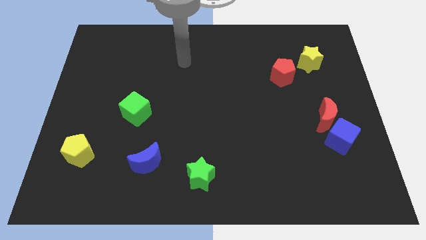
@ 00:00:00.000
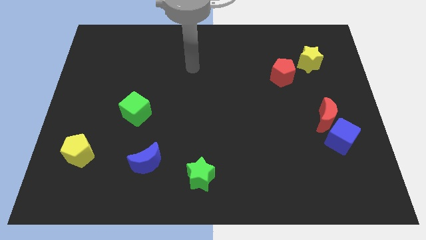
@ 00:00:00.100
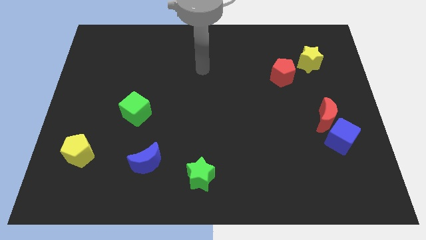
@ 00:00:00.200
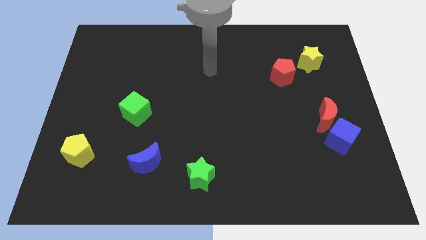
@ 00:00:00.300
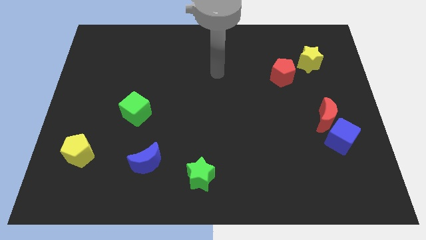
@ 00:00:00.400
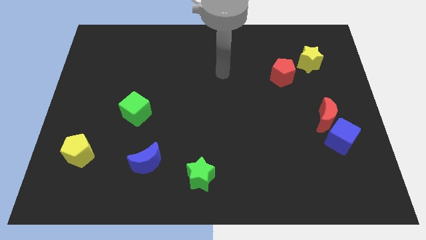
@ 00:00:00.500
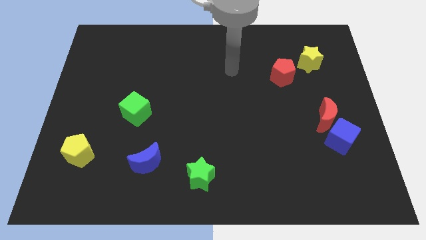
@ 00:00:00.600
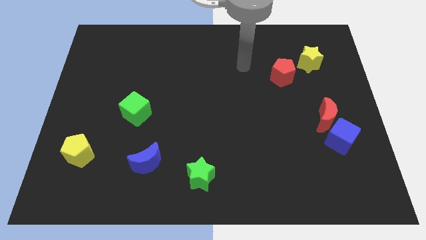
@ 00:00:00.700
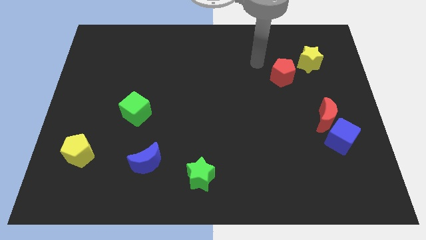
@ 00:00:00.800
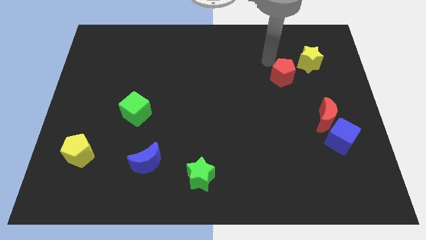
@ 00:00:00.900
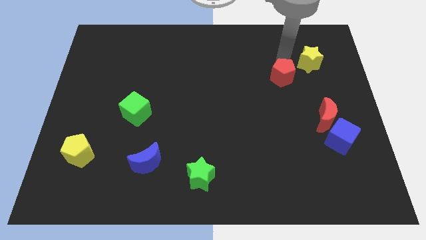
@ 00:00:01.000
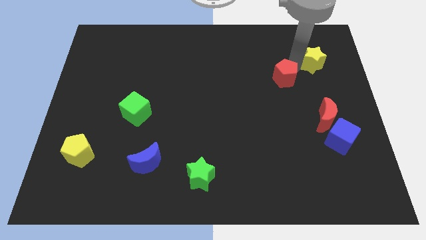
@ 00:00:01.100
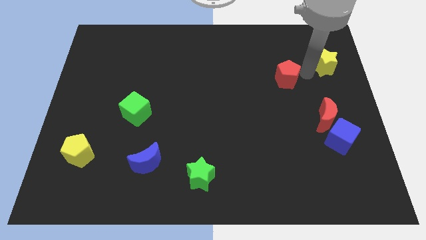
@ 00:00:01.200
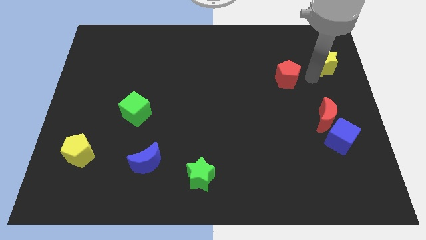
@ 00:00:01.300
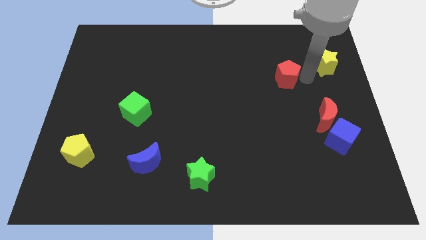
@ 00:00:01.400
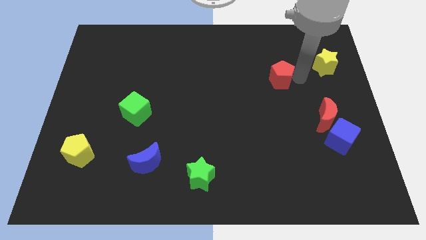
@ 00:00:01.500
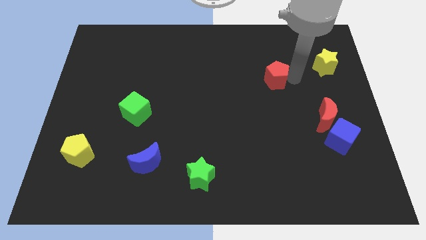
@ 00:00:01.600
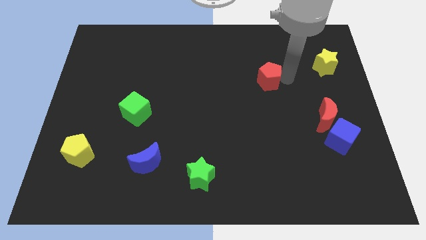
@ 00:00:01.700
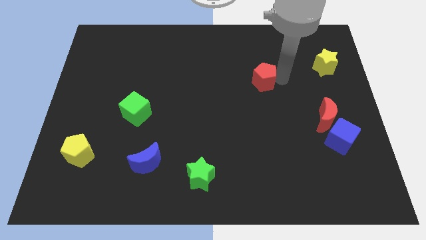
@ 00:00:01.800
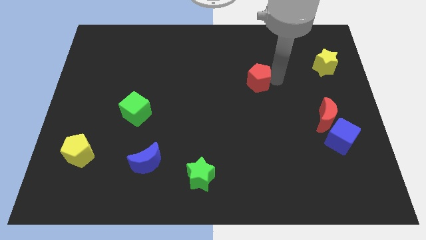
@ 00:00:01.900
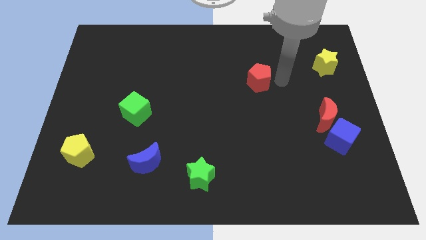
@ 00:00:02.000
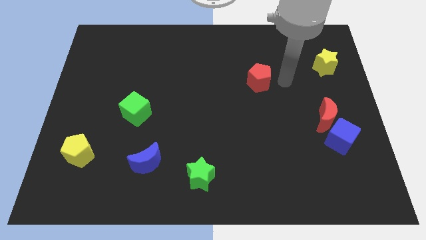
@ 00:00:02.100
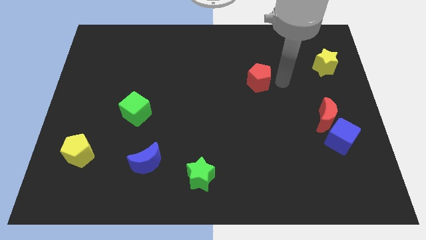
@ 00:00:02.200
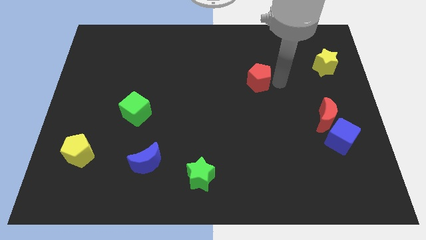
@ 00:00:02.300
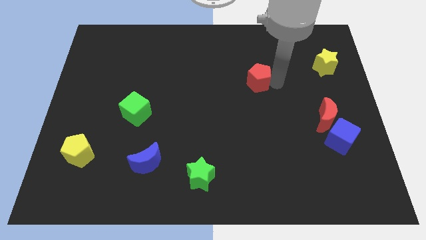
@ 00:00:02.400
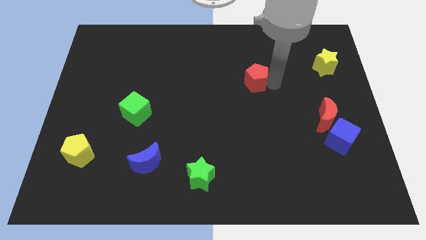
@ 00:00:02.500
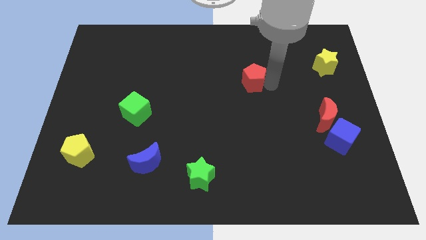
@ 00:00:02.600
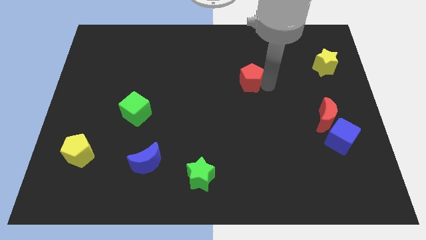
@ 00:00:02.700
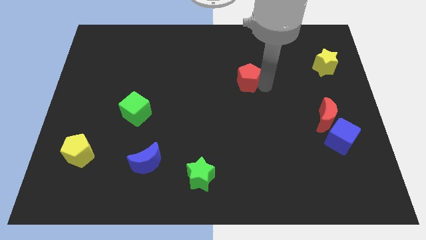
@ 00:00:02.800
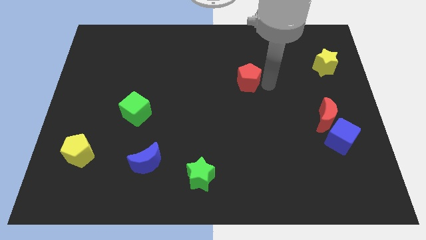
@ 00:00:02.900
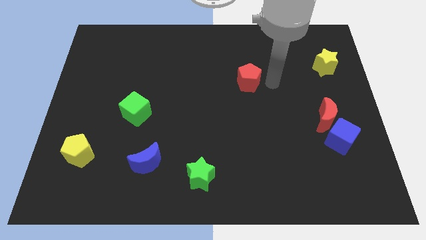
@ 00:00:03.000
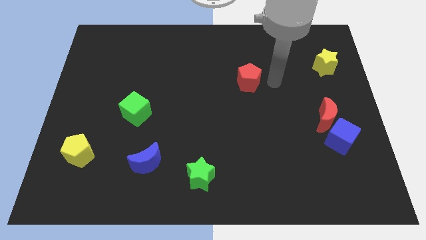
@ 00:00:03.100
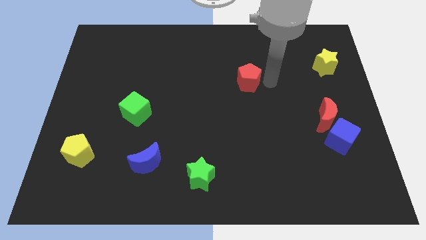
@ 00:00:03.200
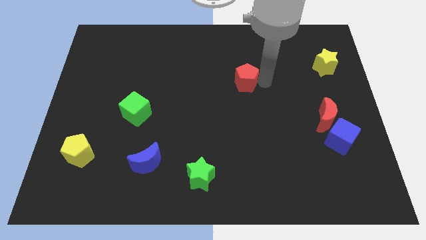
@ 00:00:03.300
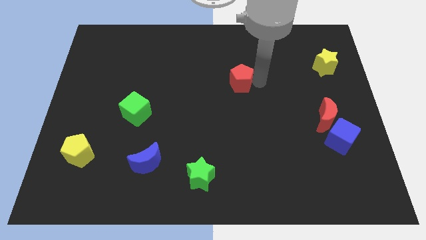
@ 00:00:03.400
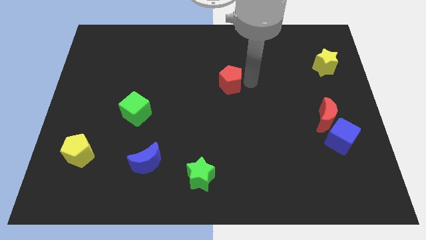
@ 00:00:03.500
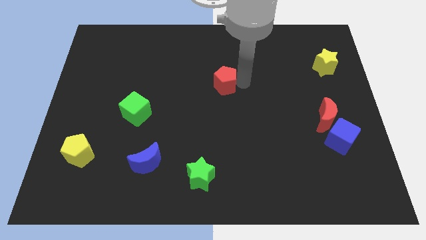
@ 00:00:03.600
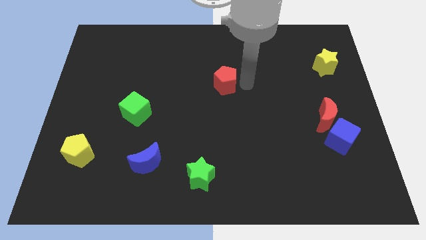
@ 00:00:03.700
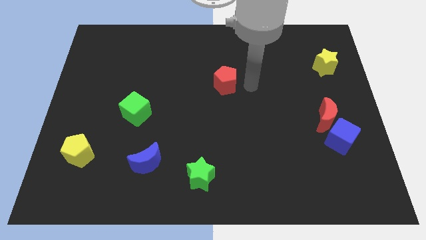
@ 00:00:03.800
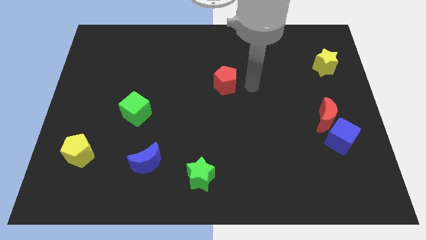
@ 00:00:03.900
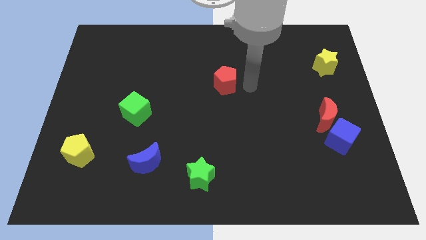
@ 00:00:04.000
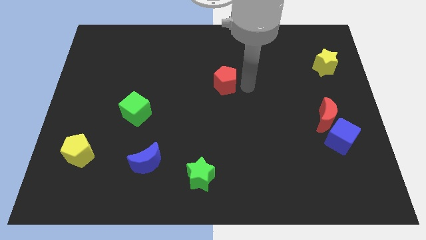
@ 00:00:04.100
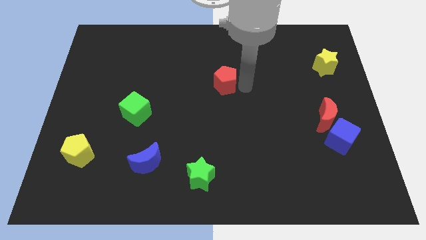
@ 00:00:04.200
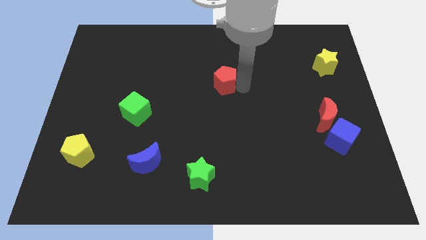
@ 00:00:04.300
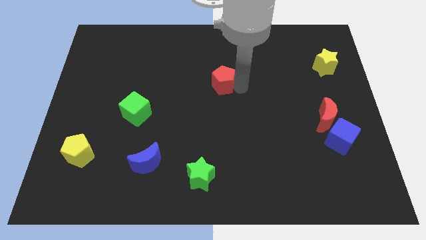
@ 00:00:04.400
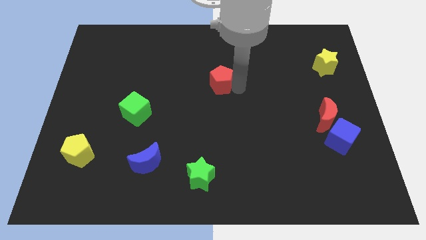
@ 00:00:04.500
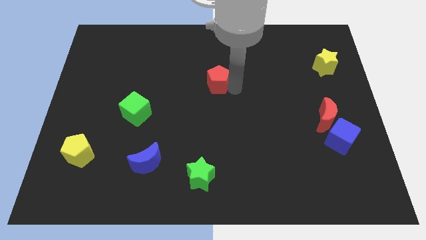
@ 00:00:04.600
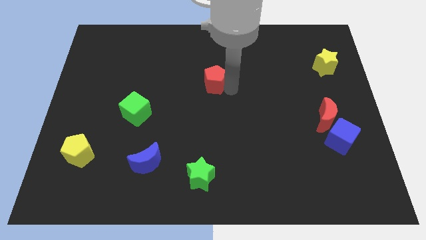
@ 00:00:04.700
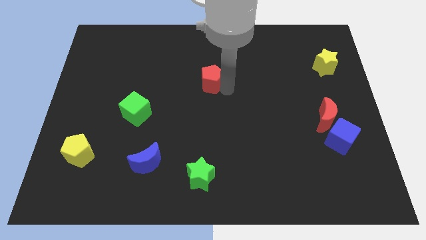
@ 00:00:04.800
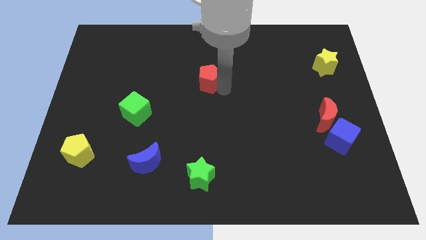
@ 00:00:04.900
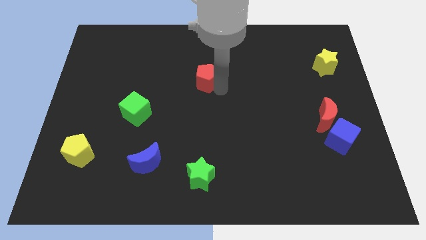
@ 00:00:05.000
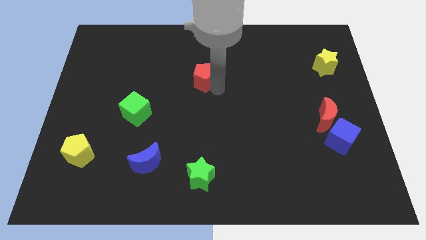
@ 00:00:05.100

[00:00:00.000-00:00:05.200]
move the red pentagon to the left

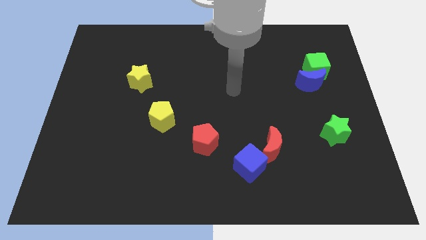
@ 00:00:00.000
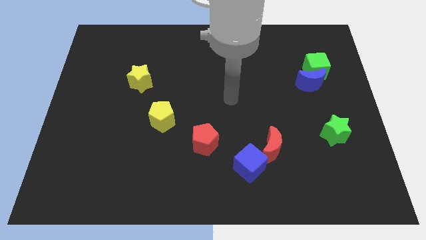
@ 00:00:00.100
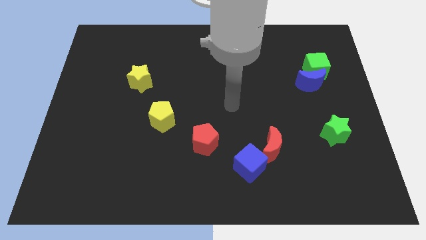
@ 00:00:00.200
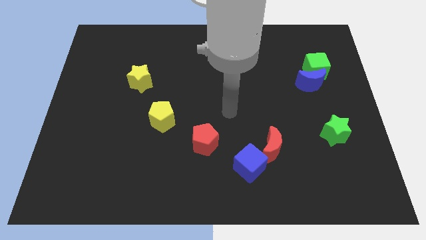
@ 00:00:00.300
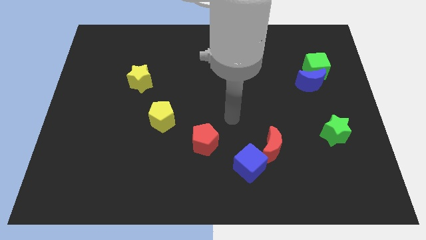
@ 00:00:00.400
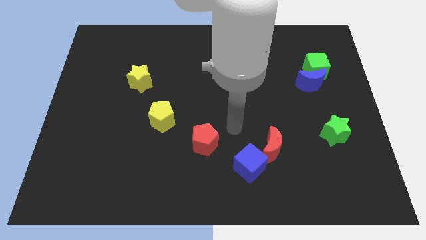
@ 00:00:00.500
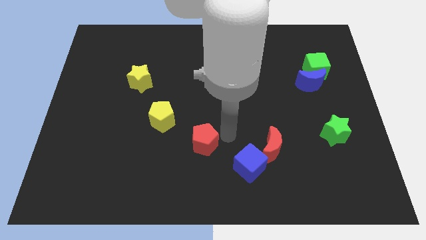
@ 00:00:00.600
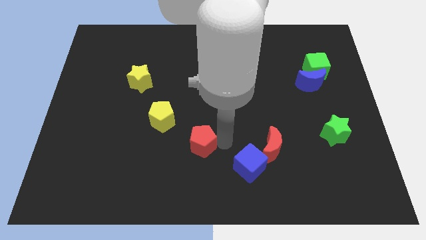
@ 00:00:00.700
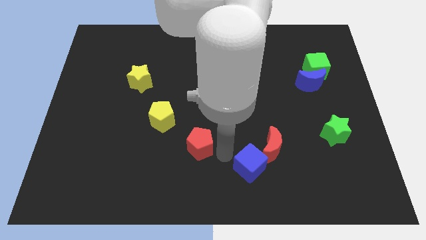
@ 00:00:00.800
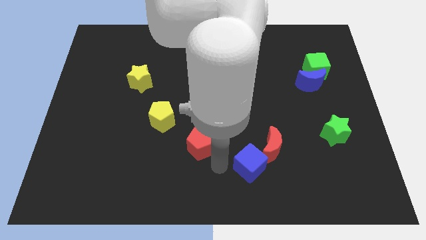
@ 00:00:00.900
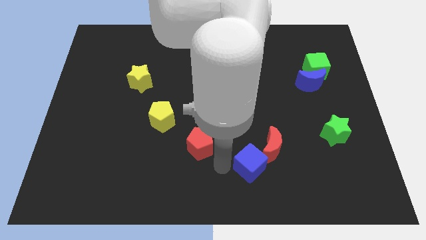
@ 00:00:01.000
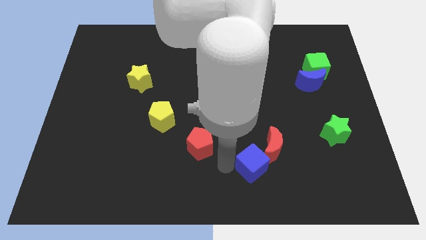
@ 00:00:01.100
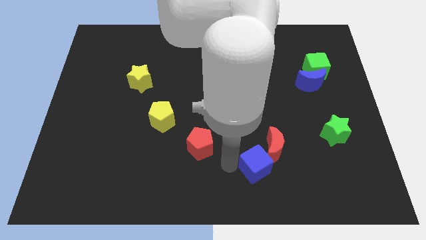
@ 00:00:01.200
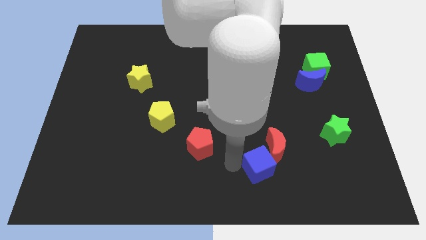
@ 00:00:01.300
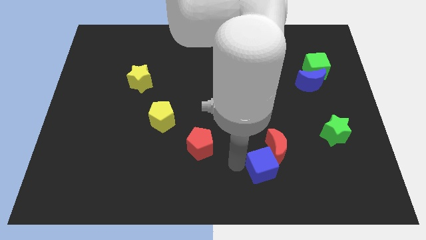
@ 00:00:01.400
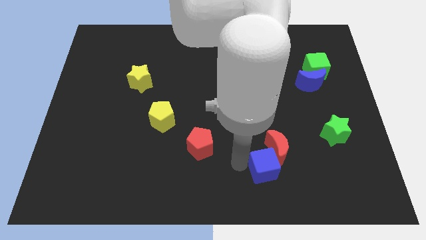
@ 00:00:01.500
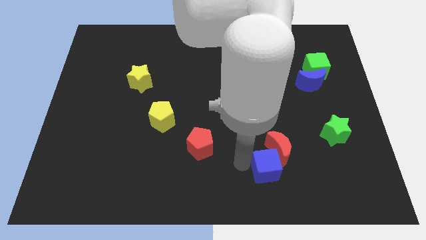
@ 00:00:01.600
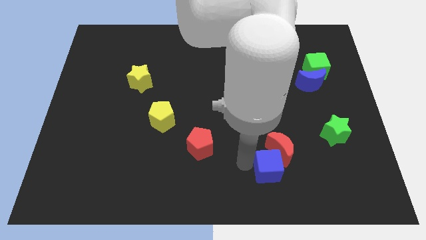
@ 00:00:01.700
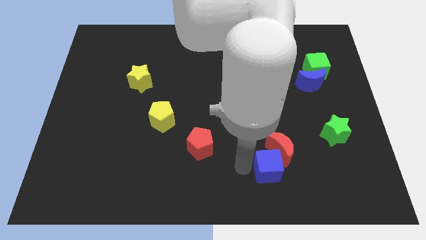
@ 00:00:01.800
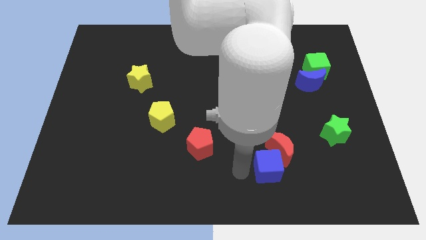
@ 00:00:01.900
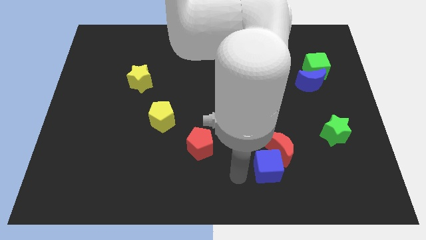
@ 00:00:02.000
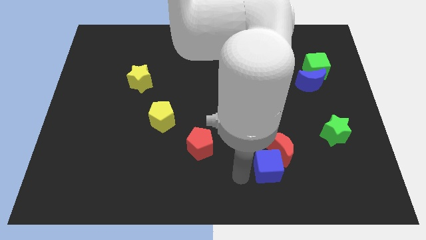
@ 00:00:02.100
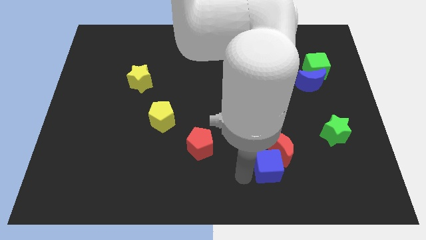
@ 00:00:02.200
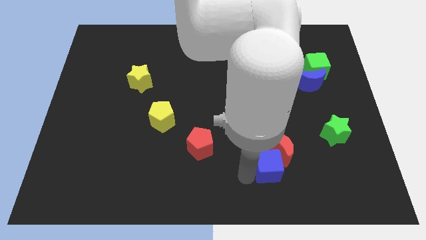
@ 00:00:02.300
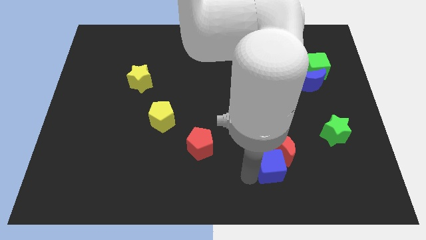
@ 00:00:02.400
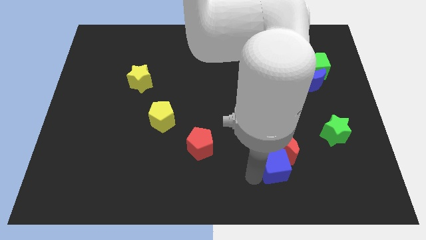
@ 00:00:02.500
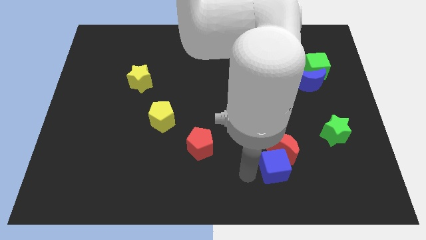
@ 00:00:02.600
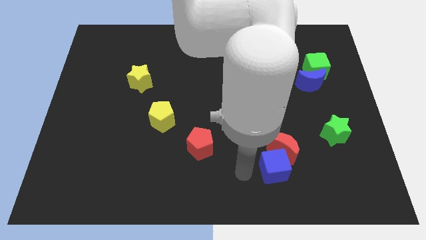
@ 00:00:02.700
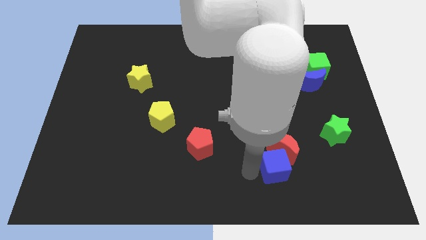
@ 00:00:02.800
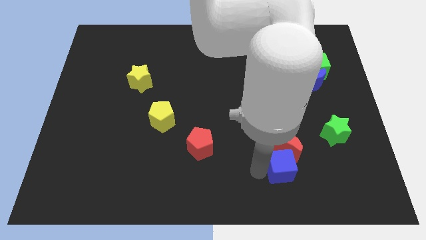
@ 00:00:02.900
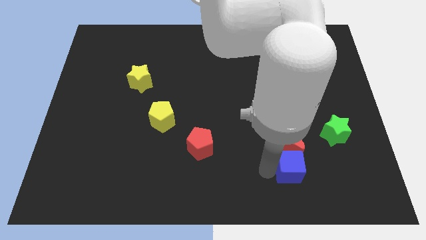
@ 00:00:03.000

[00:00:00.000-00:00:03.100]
move the blue cube right a bit
